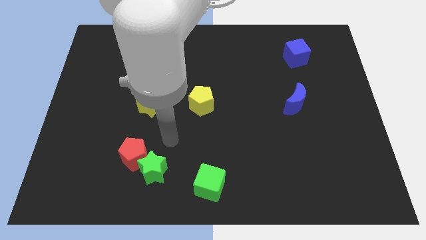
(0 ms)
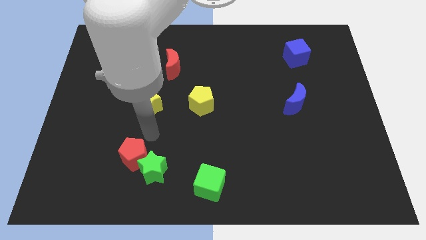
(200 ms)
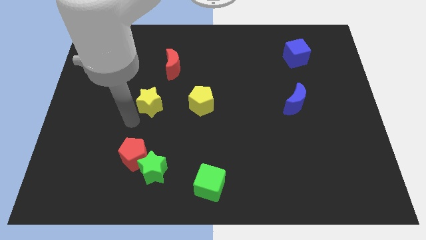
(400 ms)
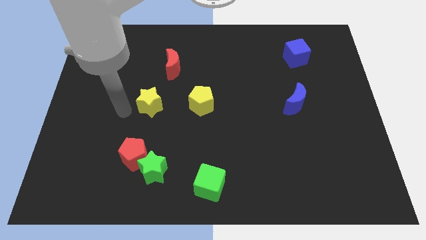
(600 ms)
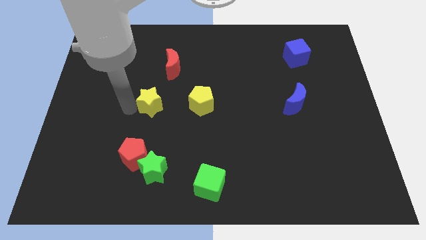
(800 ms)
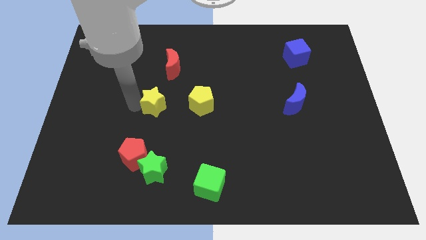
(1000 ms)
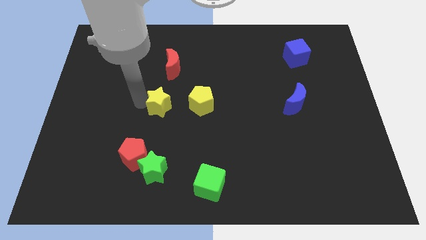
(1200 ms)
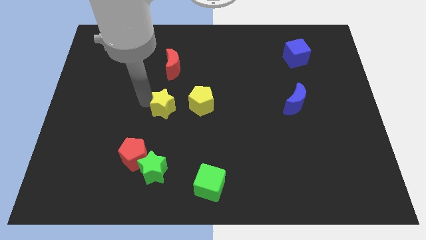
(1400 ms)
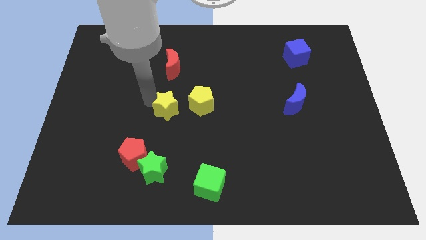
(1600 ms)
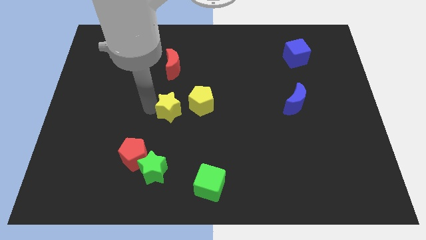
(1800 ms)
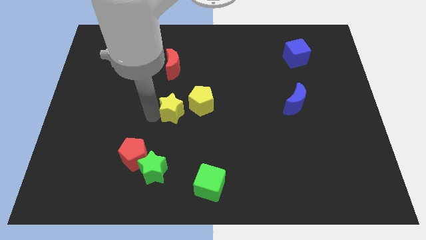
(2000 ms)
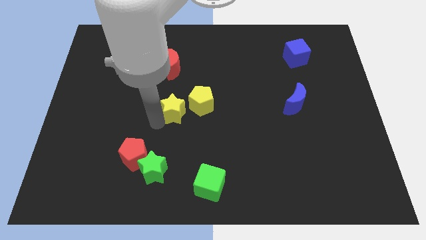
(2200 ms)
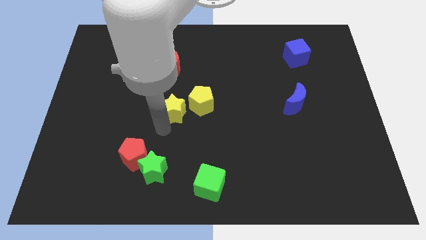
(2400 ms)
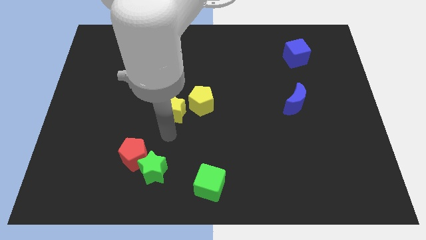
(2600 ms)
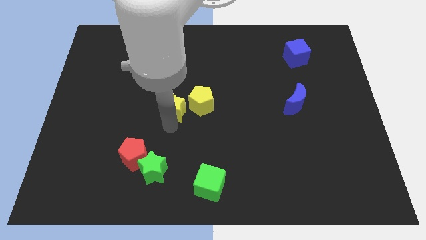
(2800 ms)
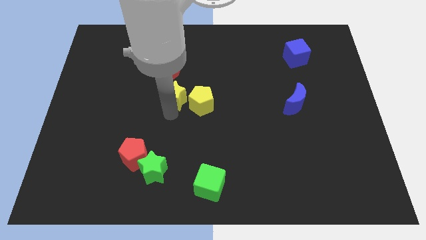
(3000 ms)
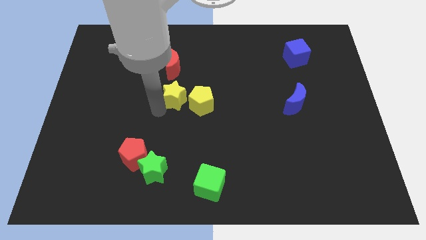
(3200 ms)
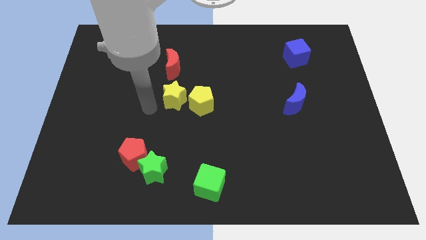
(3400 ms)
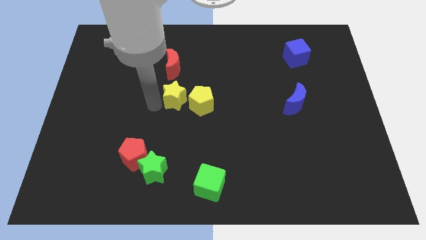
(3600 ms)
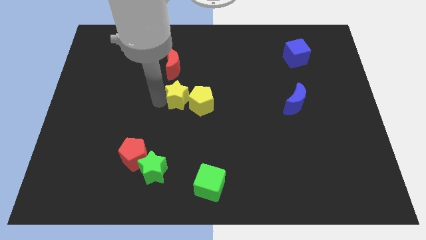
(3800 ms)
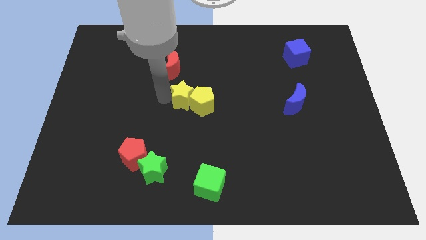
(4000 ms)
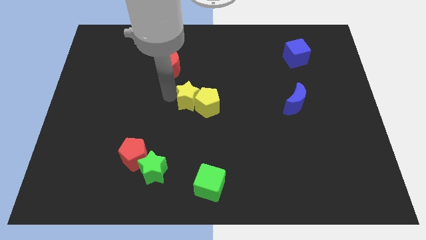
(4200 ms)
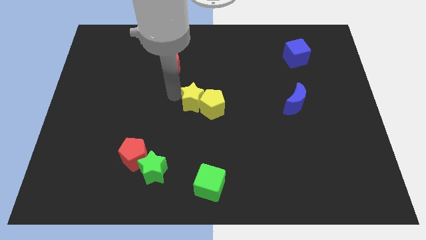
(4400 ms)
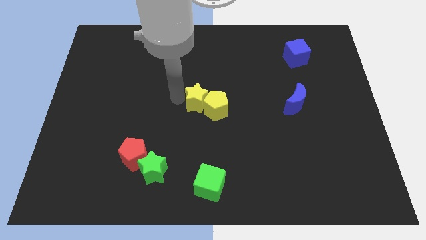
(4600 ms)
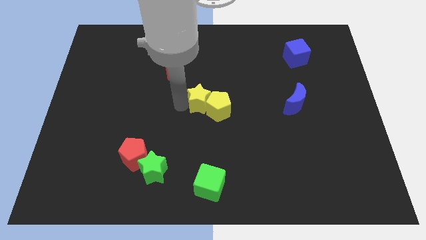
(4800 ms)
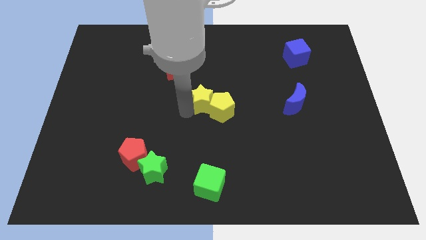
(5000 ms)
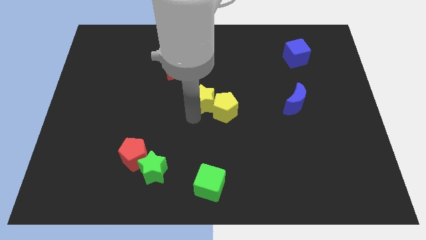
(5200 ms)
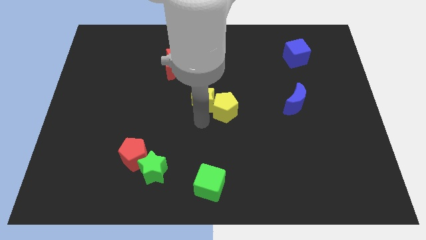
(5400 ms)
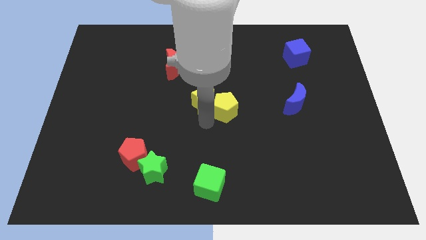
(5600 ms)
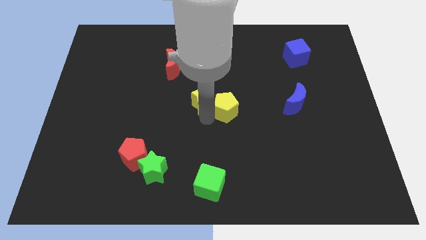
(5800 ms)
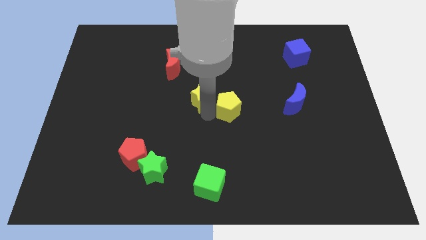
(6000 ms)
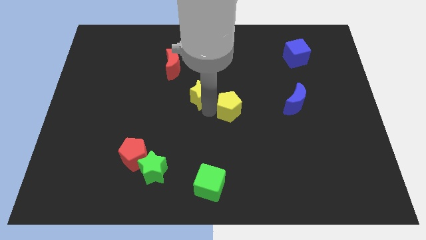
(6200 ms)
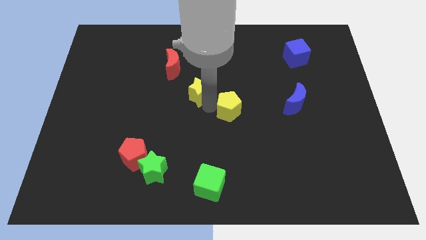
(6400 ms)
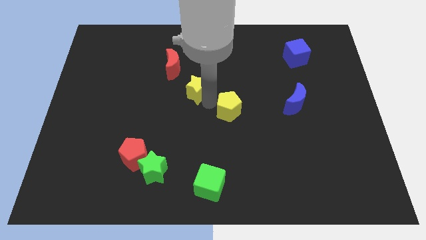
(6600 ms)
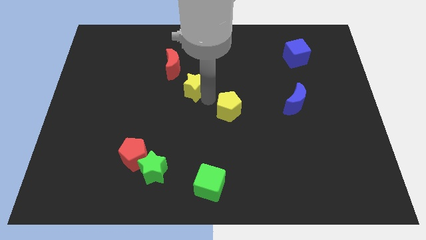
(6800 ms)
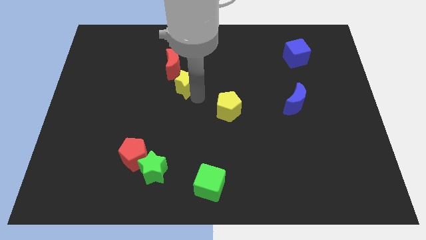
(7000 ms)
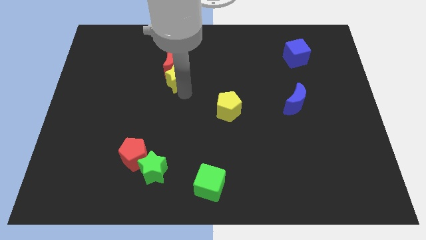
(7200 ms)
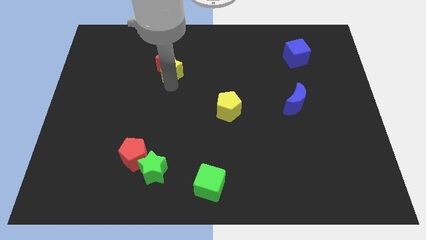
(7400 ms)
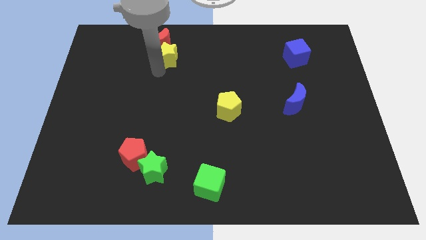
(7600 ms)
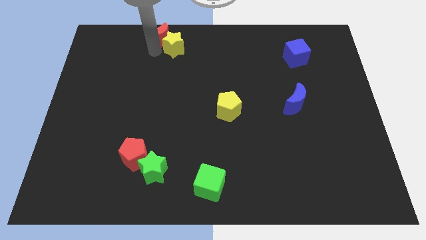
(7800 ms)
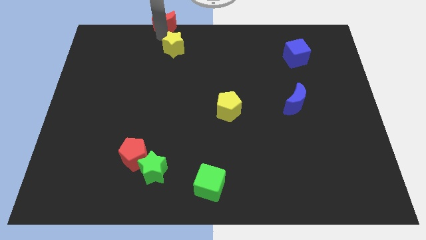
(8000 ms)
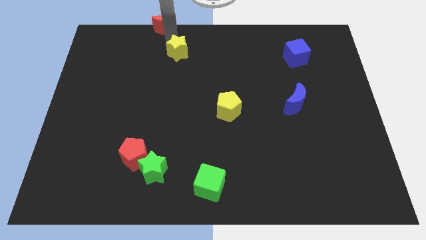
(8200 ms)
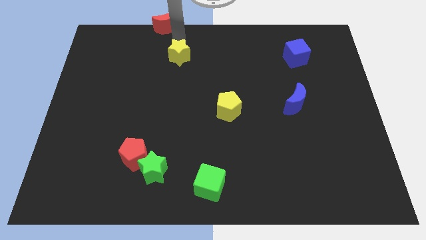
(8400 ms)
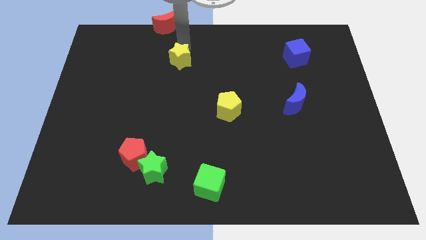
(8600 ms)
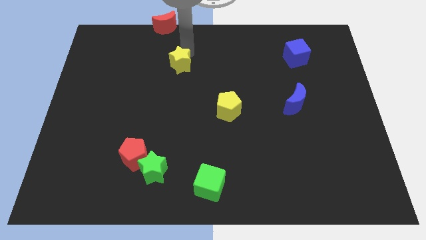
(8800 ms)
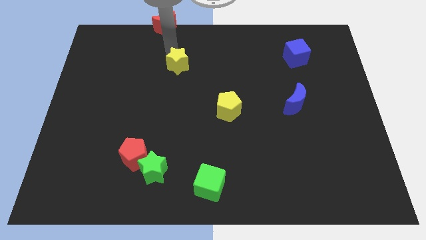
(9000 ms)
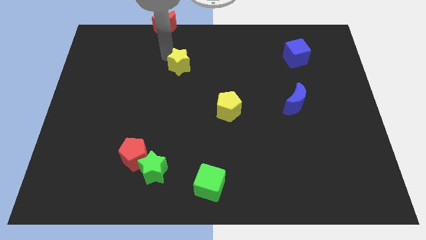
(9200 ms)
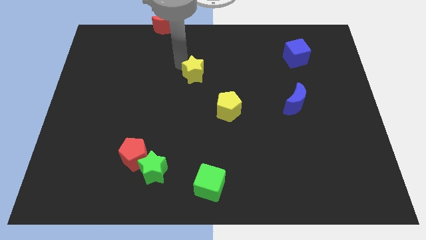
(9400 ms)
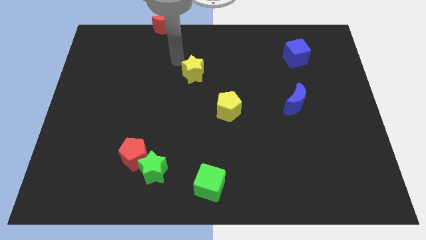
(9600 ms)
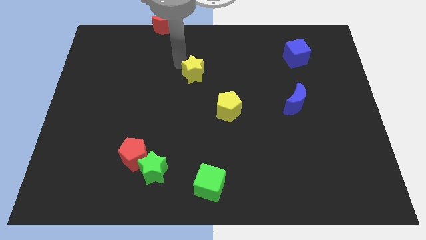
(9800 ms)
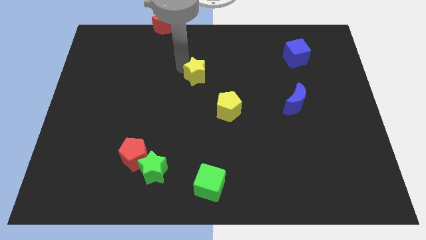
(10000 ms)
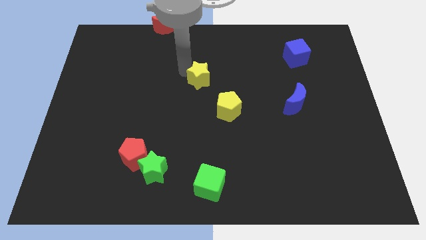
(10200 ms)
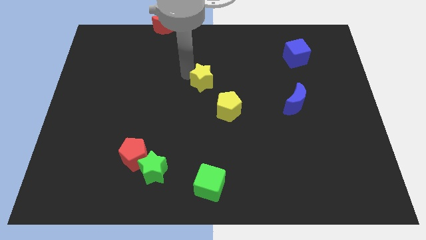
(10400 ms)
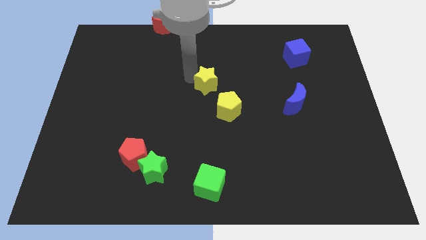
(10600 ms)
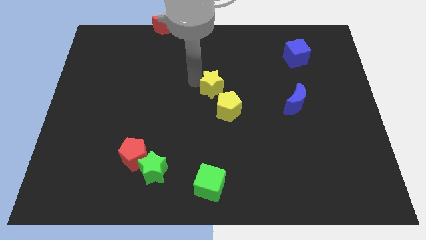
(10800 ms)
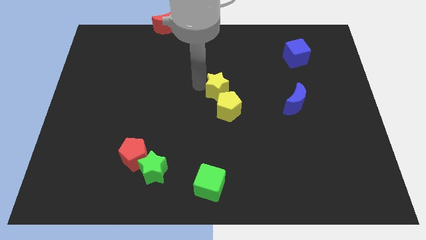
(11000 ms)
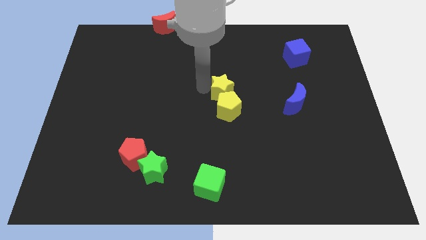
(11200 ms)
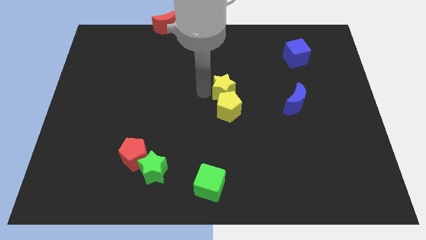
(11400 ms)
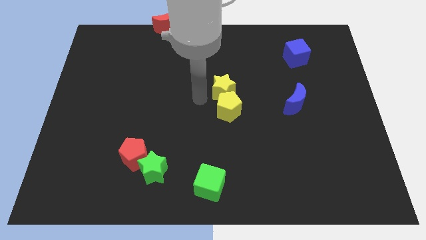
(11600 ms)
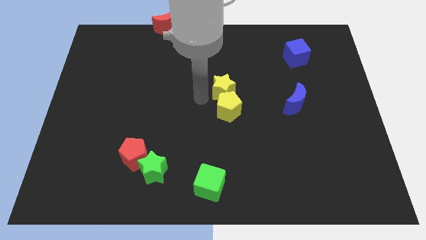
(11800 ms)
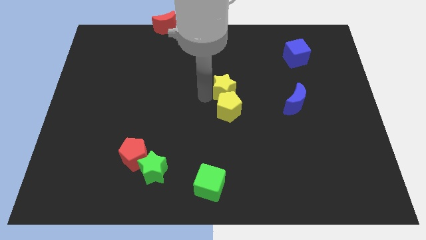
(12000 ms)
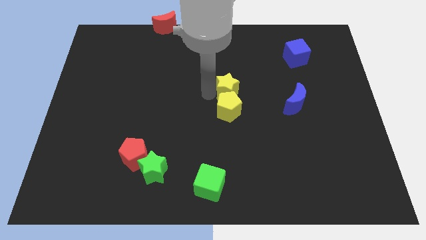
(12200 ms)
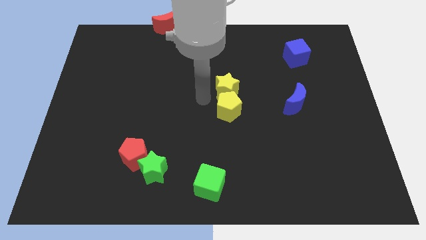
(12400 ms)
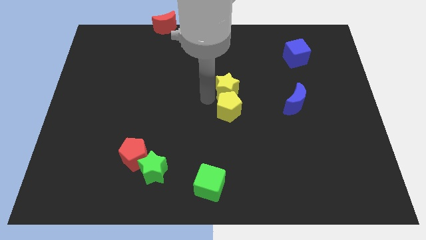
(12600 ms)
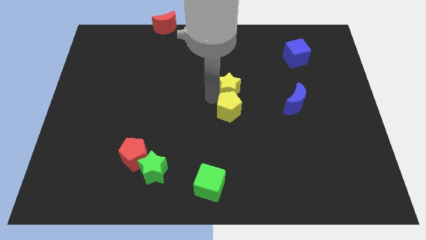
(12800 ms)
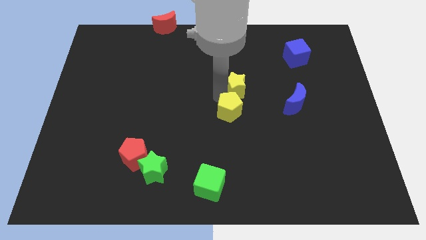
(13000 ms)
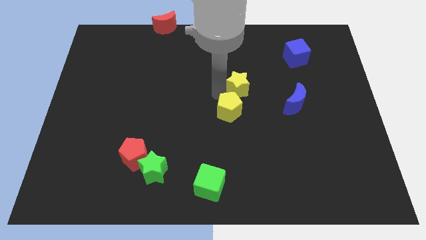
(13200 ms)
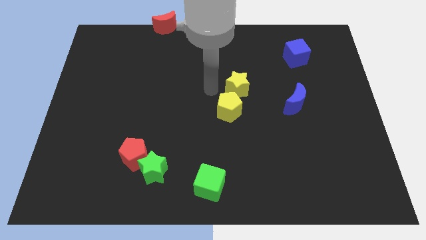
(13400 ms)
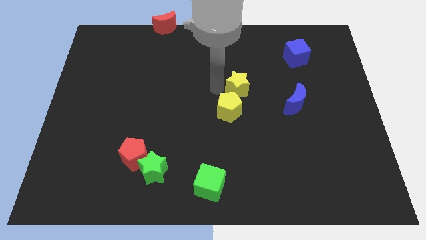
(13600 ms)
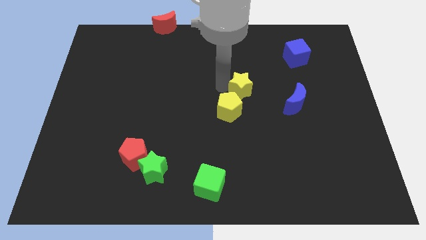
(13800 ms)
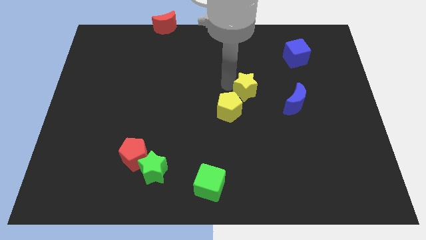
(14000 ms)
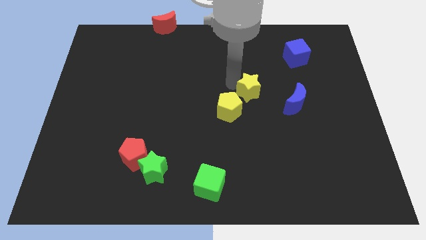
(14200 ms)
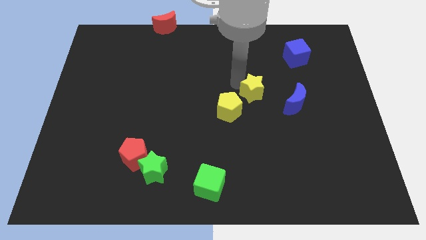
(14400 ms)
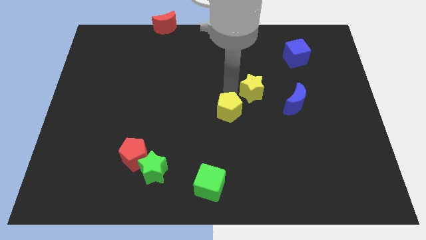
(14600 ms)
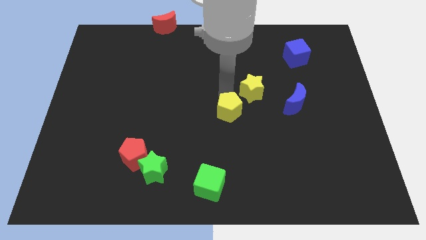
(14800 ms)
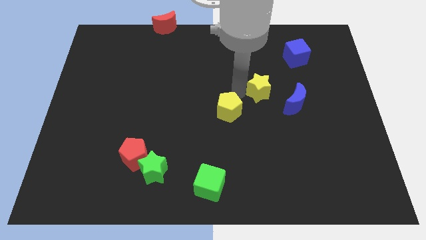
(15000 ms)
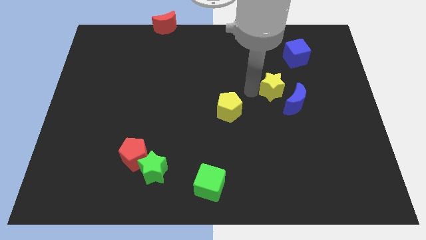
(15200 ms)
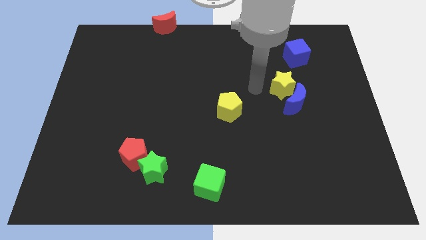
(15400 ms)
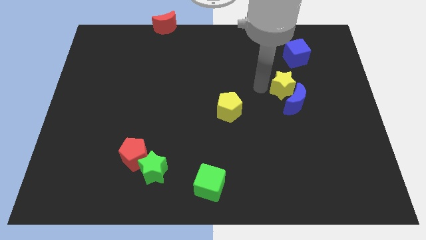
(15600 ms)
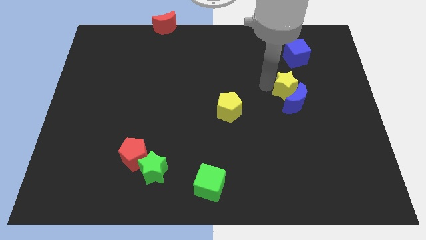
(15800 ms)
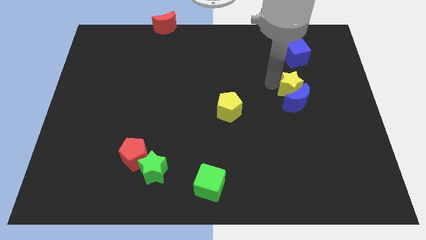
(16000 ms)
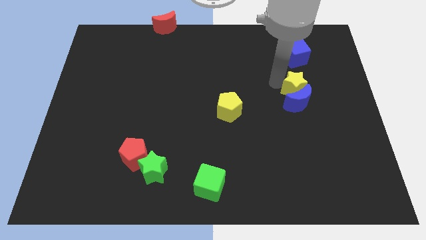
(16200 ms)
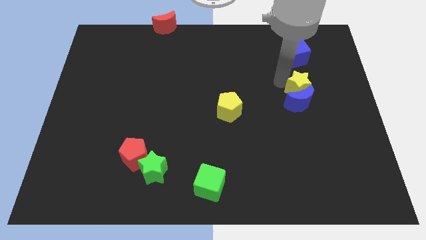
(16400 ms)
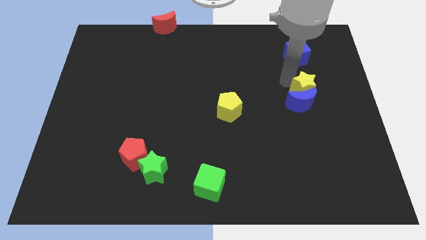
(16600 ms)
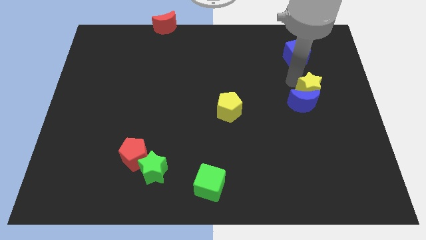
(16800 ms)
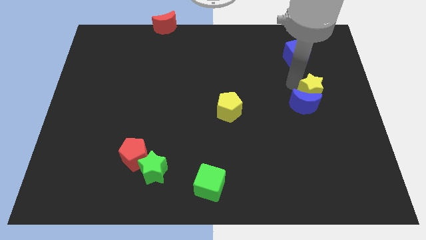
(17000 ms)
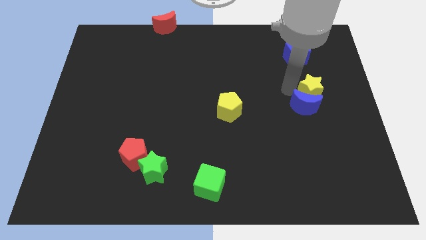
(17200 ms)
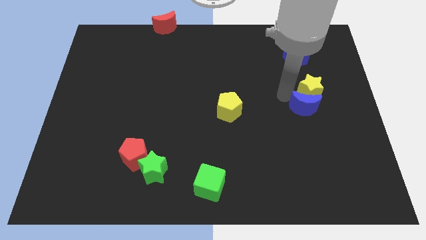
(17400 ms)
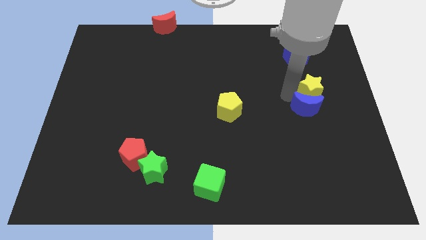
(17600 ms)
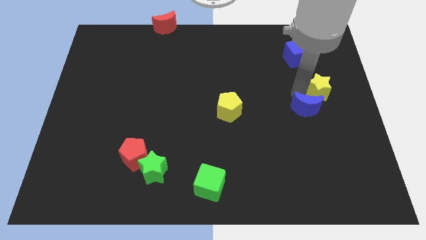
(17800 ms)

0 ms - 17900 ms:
put the yellow star to the right side
